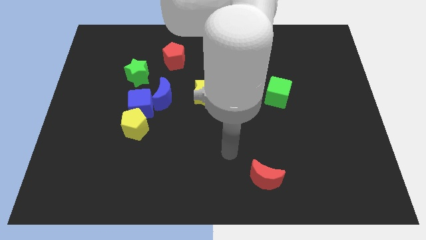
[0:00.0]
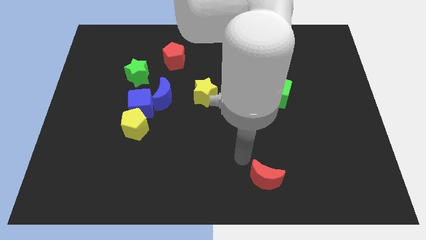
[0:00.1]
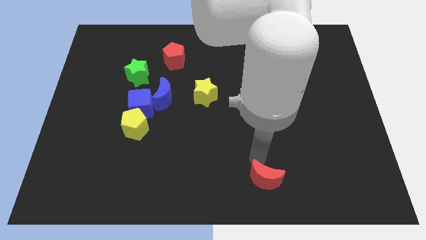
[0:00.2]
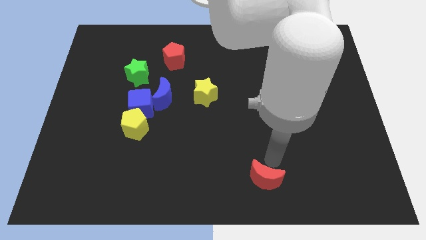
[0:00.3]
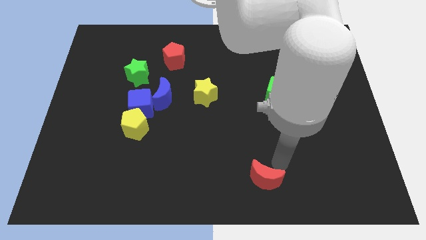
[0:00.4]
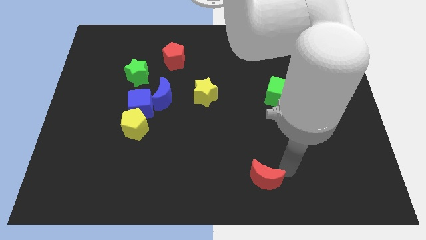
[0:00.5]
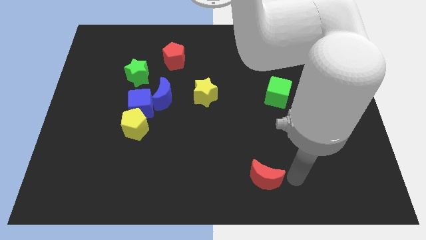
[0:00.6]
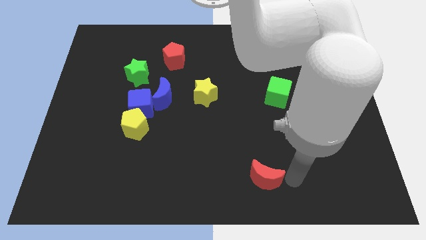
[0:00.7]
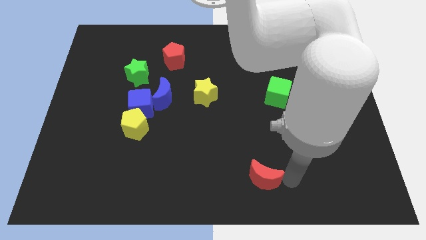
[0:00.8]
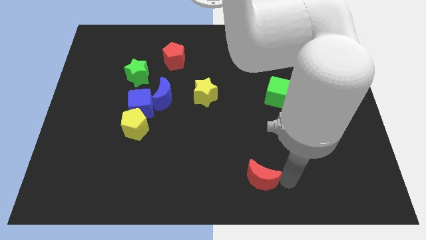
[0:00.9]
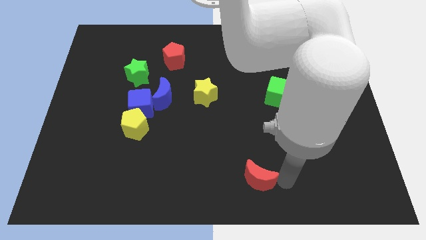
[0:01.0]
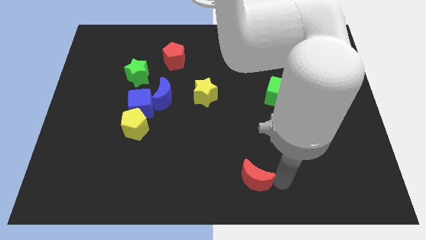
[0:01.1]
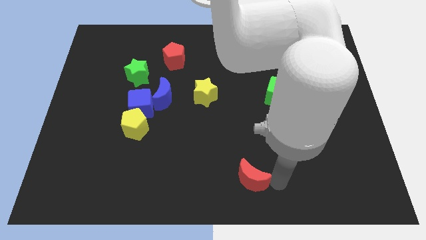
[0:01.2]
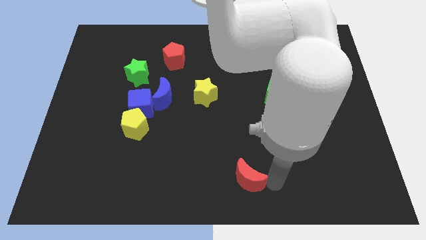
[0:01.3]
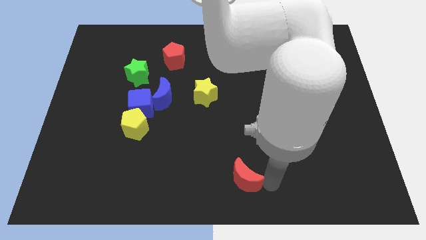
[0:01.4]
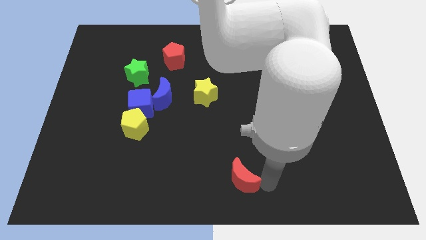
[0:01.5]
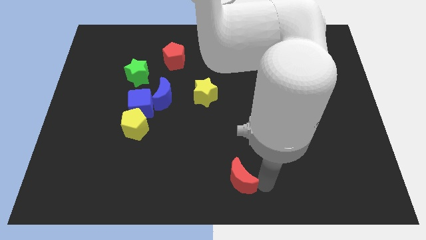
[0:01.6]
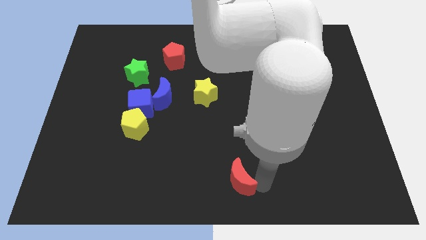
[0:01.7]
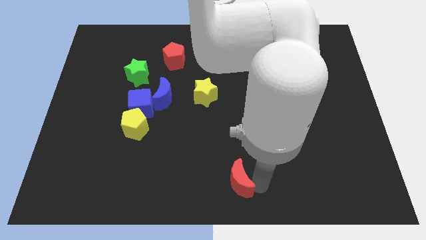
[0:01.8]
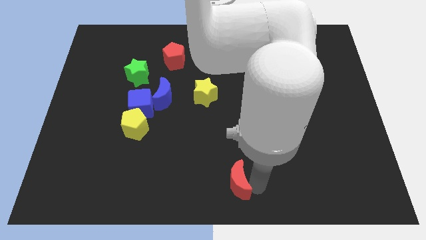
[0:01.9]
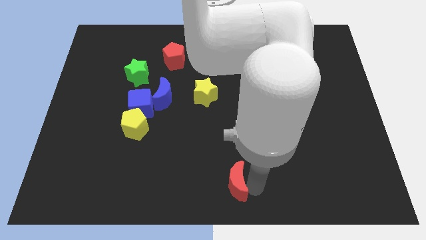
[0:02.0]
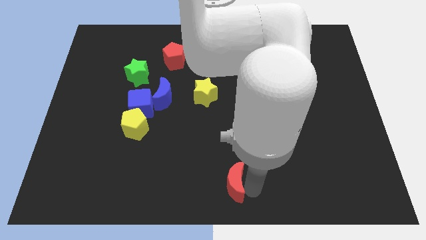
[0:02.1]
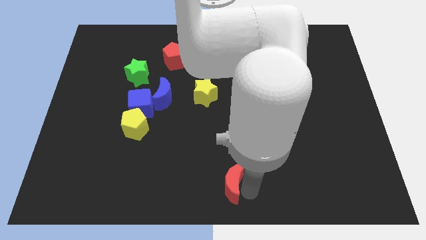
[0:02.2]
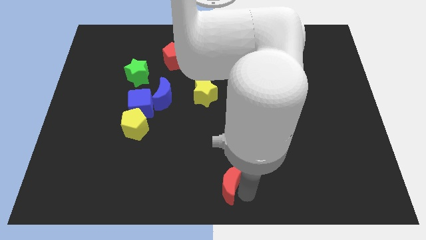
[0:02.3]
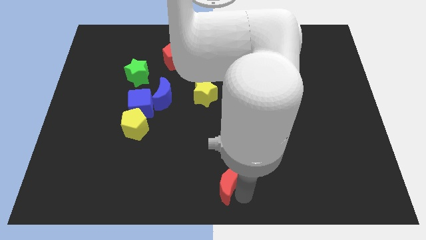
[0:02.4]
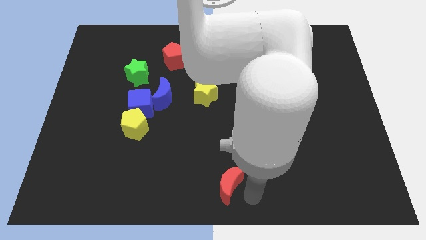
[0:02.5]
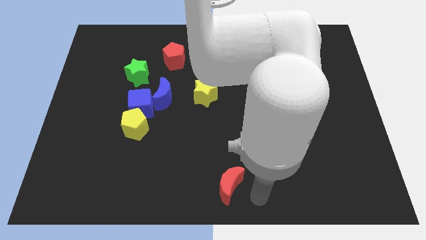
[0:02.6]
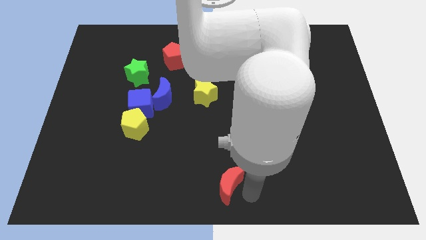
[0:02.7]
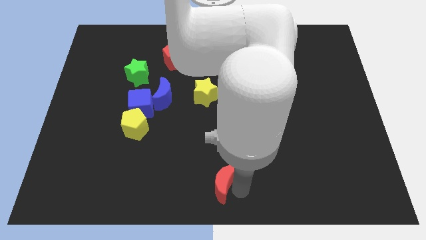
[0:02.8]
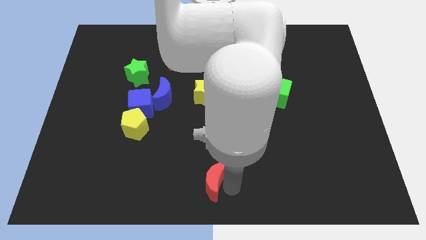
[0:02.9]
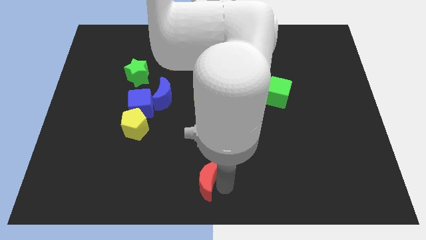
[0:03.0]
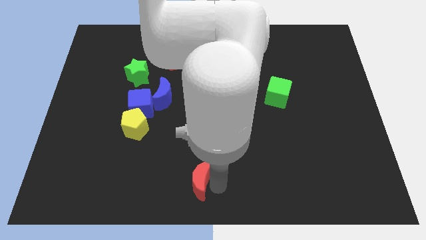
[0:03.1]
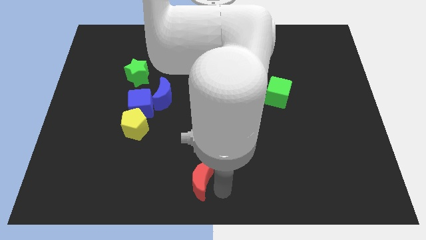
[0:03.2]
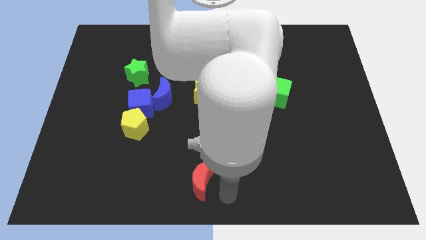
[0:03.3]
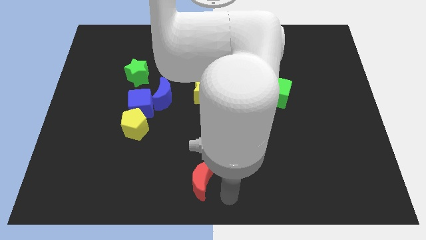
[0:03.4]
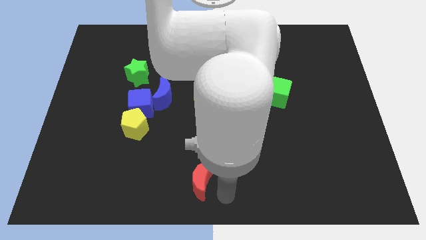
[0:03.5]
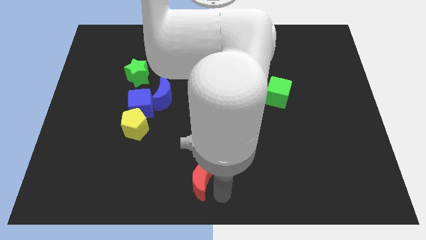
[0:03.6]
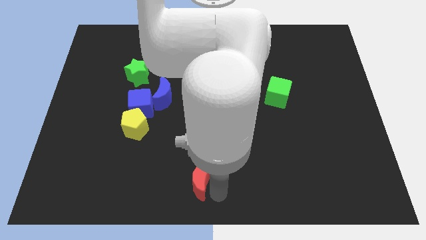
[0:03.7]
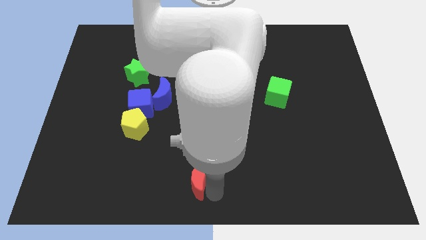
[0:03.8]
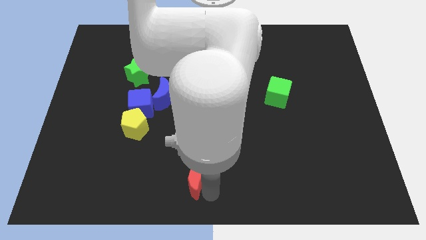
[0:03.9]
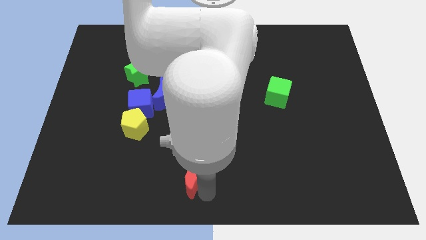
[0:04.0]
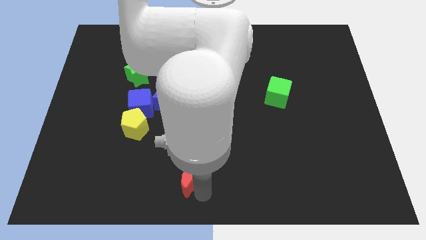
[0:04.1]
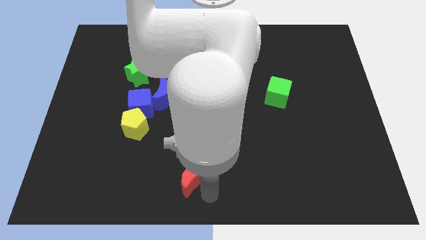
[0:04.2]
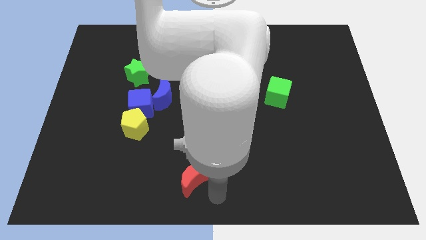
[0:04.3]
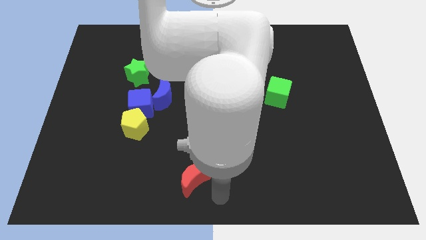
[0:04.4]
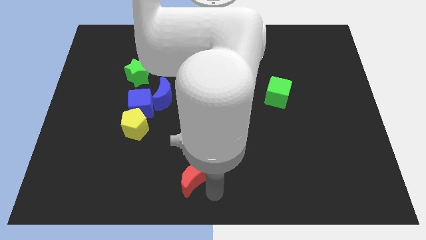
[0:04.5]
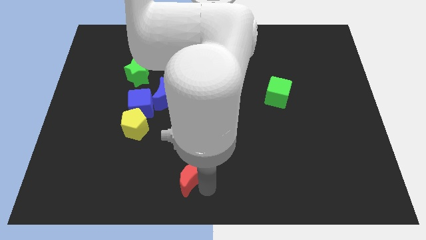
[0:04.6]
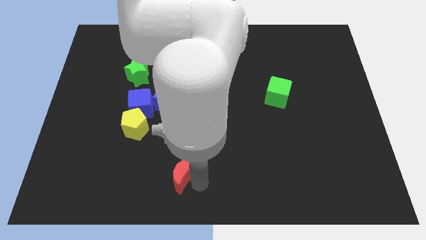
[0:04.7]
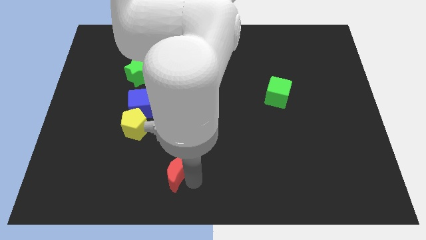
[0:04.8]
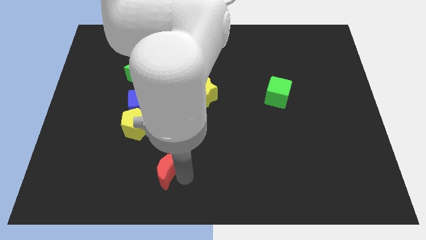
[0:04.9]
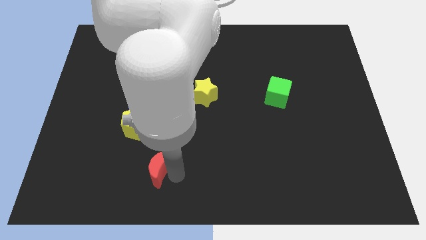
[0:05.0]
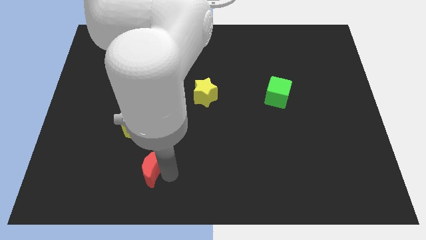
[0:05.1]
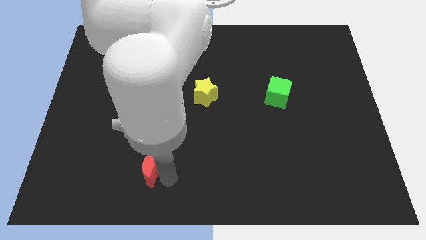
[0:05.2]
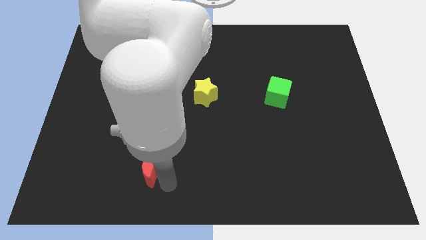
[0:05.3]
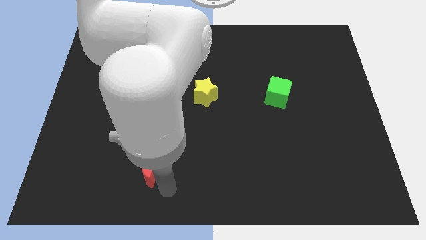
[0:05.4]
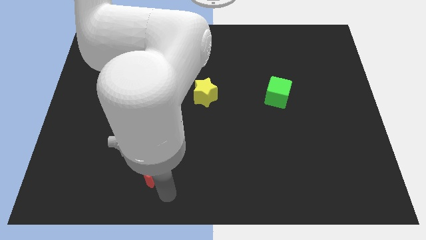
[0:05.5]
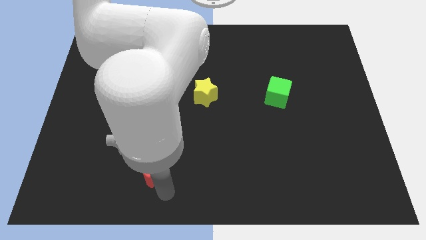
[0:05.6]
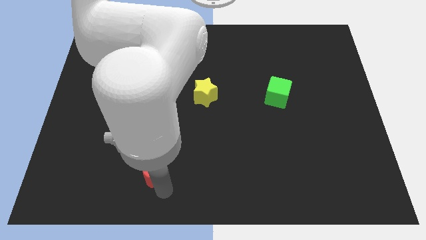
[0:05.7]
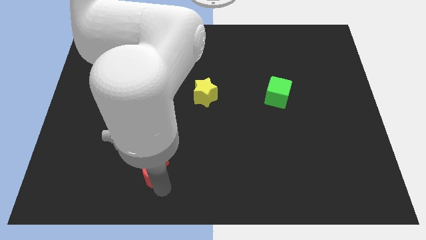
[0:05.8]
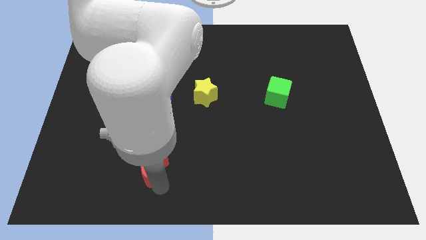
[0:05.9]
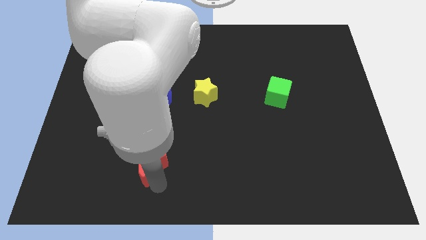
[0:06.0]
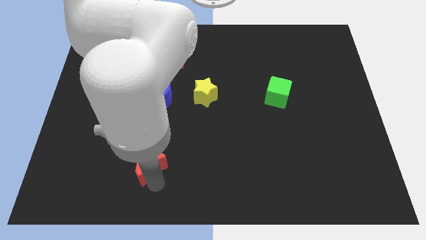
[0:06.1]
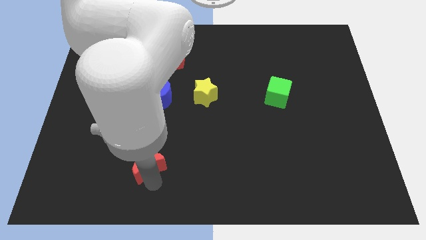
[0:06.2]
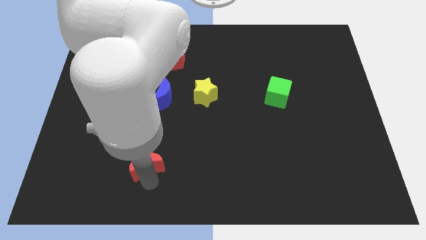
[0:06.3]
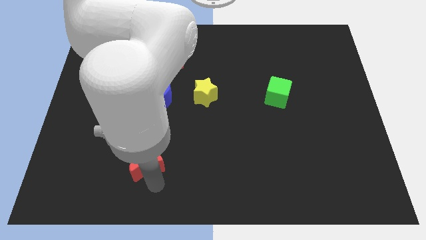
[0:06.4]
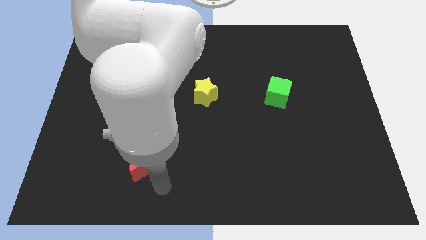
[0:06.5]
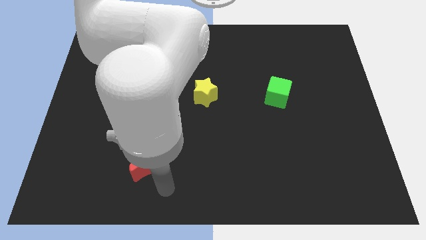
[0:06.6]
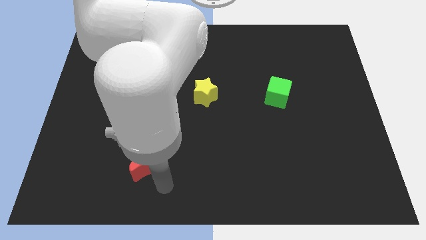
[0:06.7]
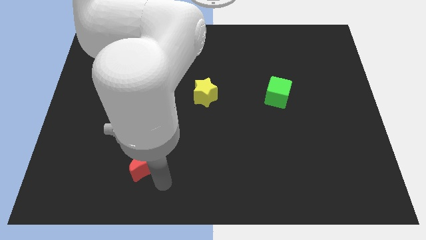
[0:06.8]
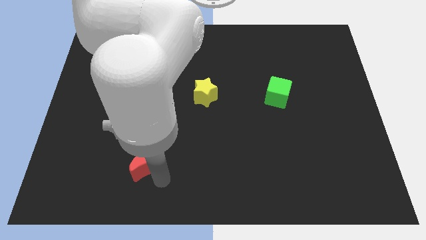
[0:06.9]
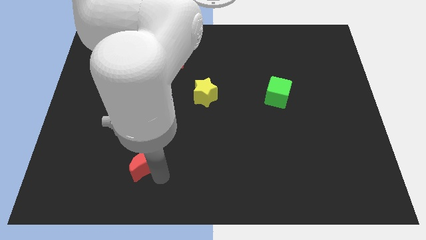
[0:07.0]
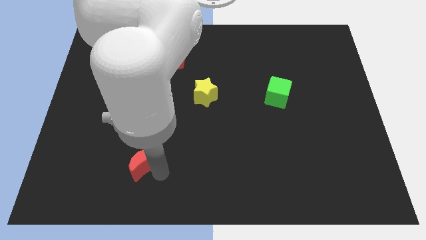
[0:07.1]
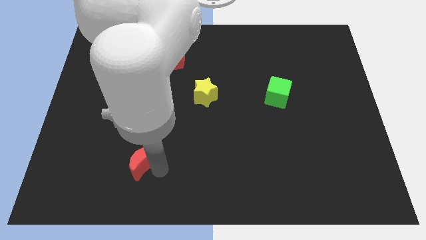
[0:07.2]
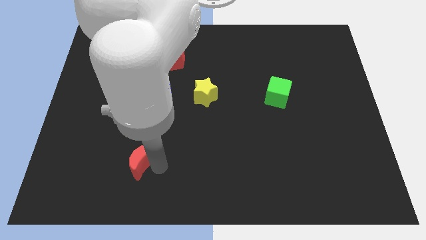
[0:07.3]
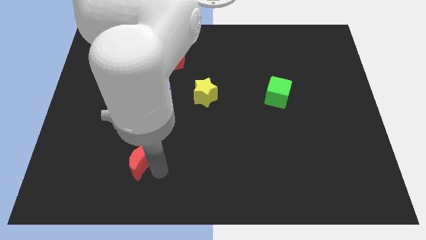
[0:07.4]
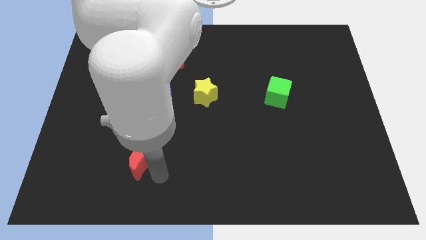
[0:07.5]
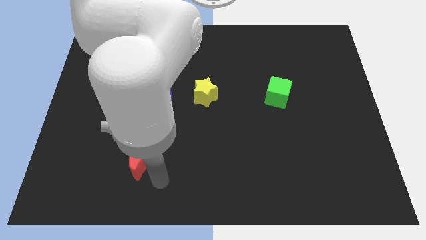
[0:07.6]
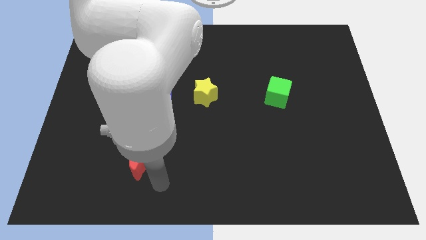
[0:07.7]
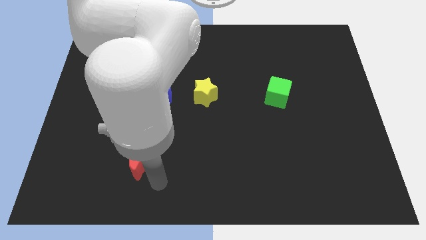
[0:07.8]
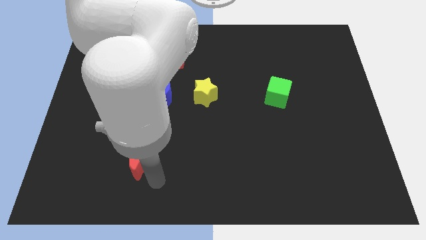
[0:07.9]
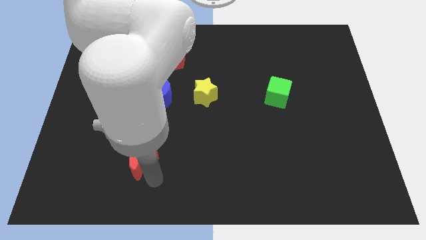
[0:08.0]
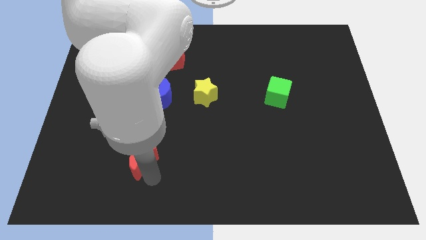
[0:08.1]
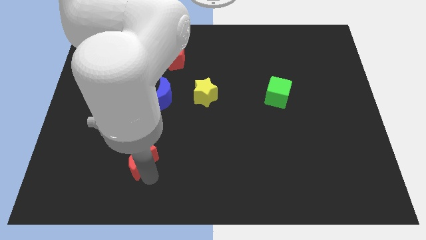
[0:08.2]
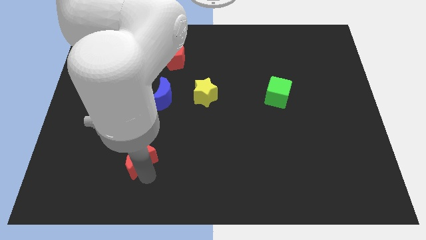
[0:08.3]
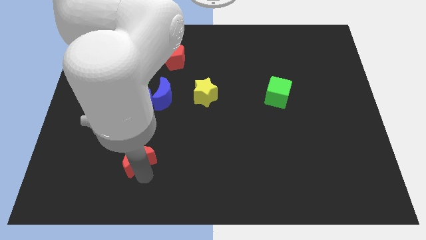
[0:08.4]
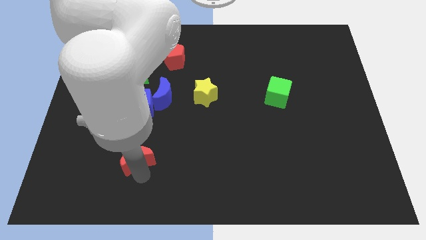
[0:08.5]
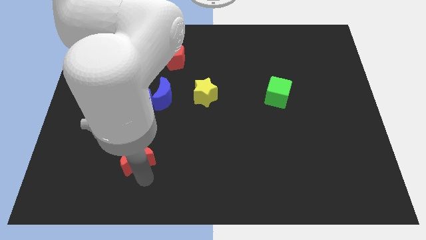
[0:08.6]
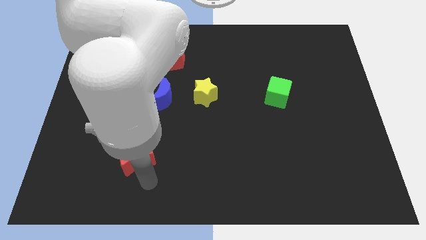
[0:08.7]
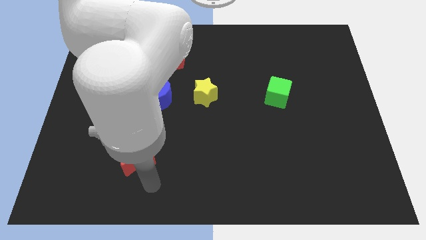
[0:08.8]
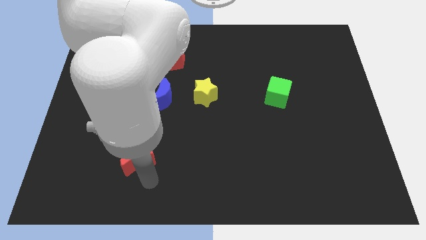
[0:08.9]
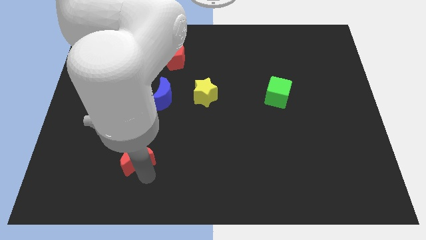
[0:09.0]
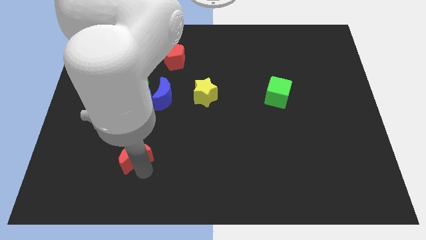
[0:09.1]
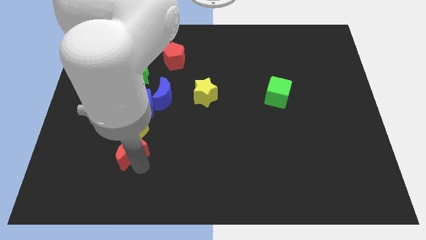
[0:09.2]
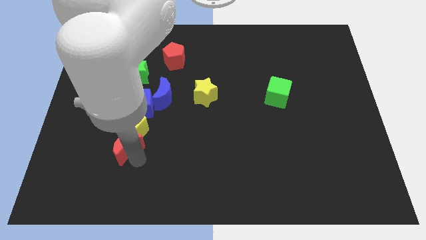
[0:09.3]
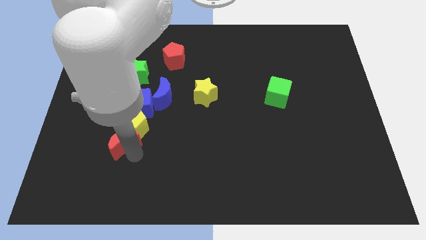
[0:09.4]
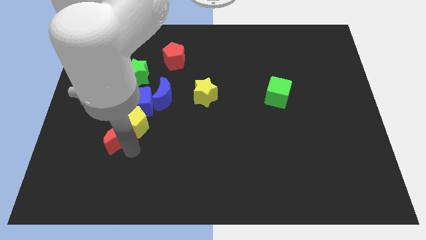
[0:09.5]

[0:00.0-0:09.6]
slide the red moon left of the yellow pentagon
